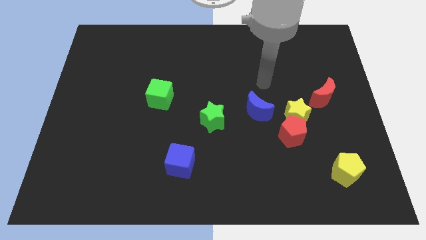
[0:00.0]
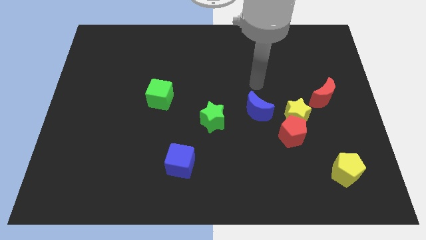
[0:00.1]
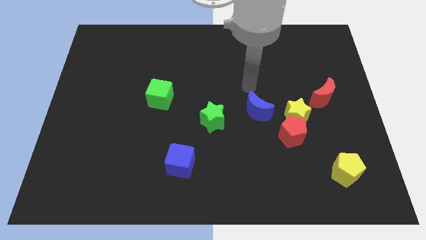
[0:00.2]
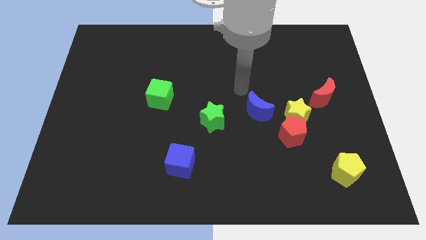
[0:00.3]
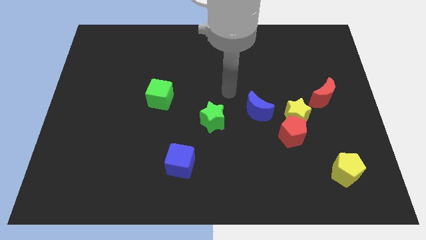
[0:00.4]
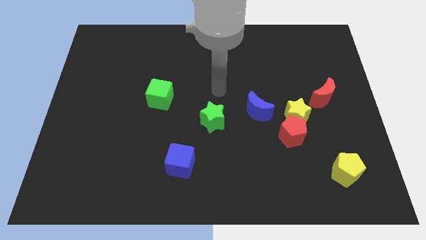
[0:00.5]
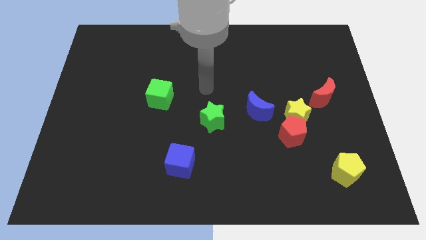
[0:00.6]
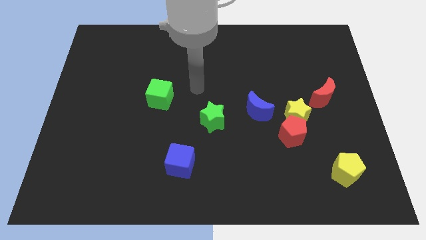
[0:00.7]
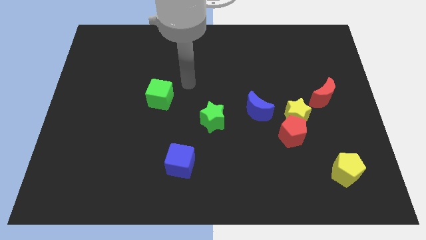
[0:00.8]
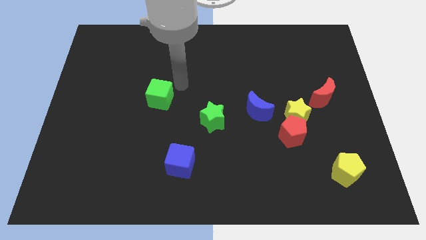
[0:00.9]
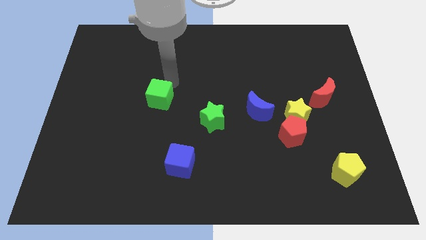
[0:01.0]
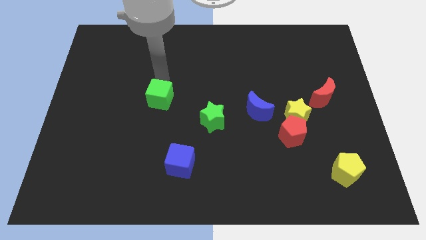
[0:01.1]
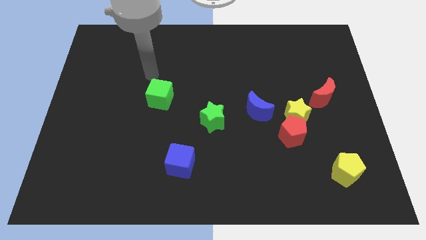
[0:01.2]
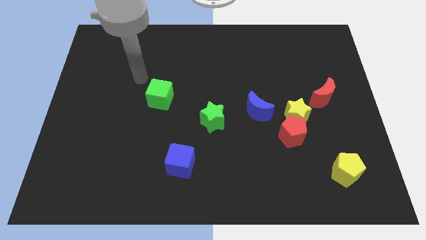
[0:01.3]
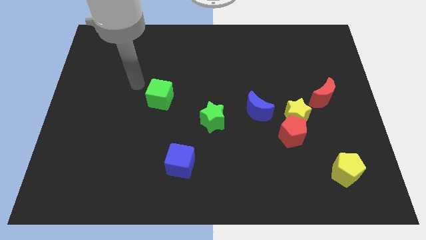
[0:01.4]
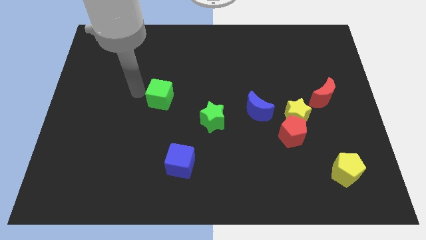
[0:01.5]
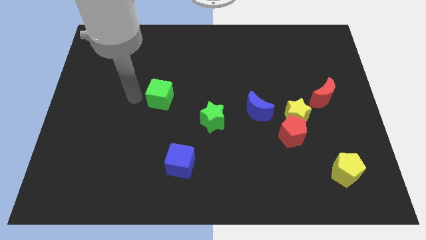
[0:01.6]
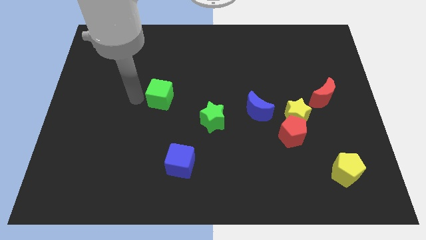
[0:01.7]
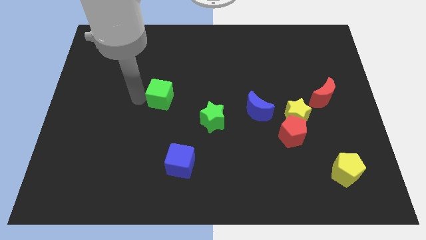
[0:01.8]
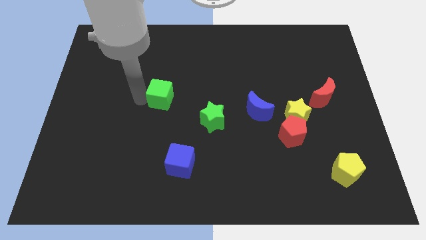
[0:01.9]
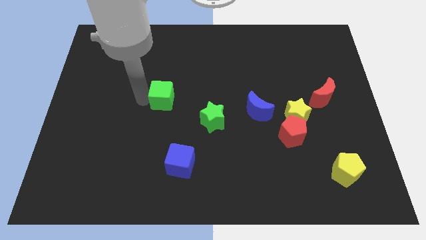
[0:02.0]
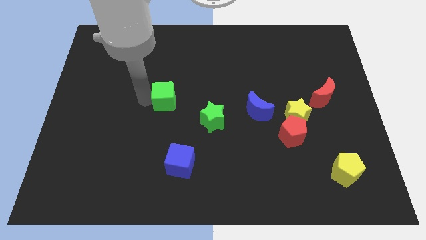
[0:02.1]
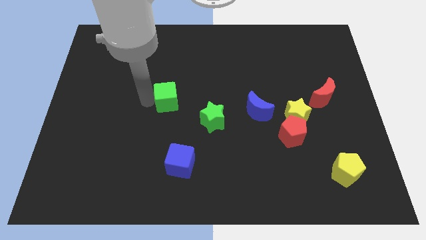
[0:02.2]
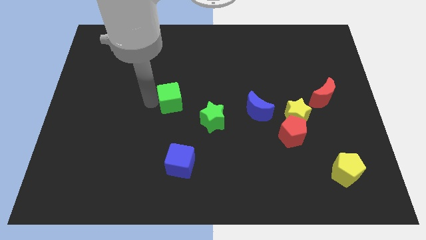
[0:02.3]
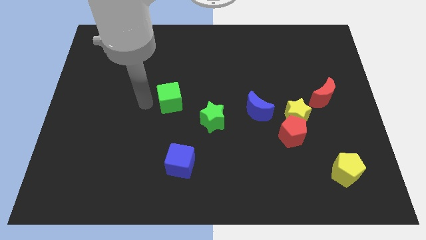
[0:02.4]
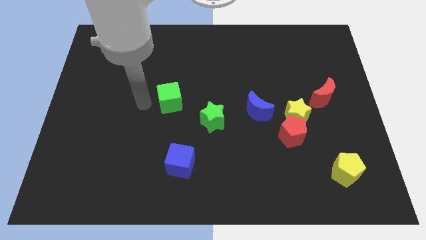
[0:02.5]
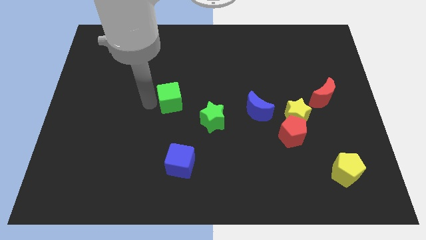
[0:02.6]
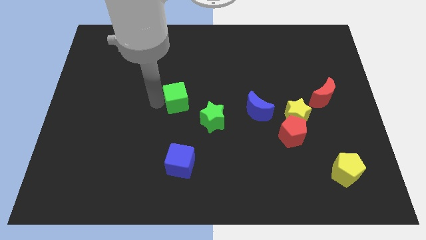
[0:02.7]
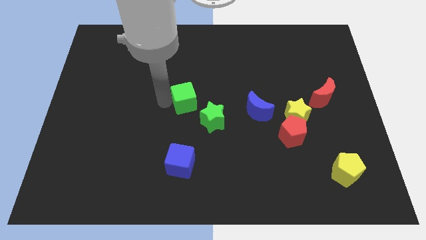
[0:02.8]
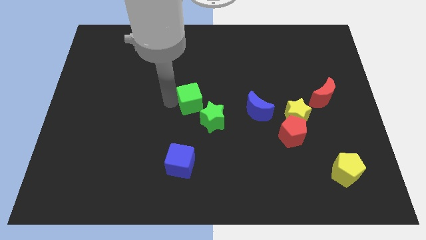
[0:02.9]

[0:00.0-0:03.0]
move the green cube right a little bit

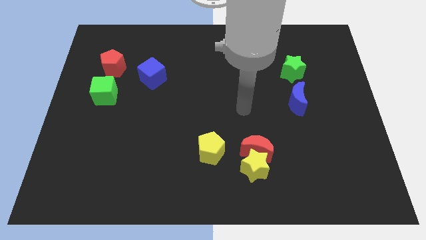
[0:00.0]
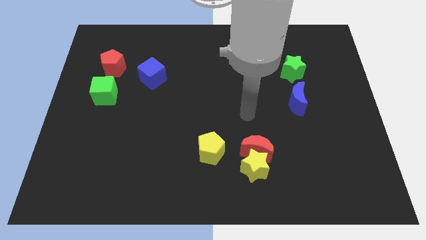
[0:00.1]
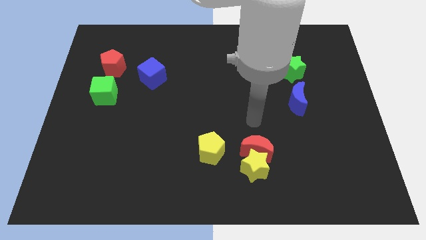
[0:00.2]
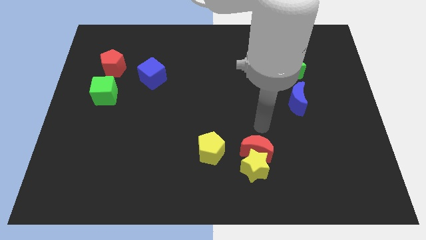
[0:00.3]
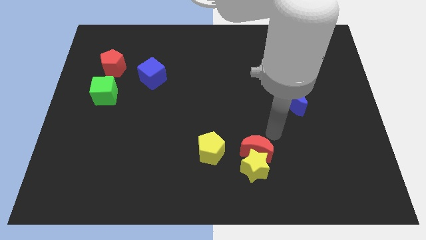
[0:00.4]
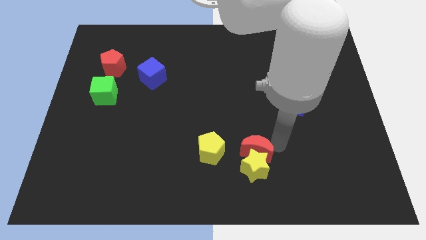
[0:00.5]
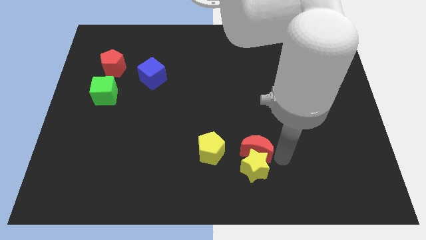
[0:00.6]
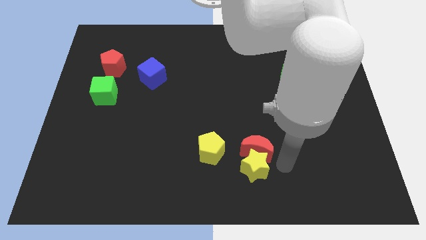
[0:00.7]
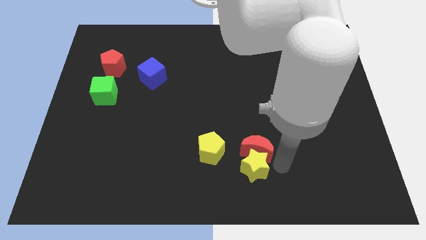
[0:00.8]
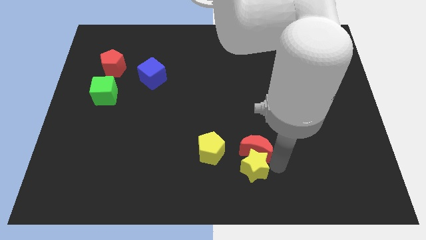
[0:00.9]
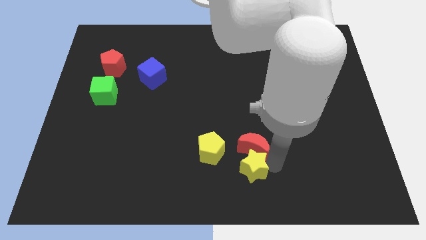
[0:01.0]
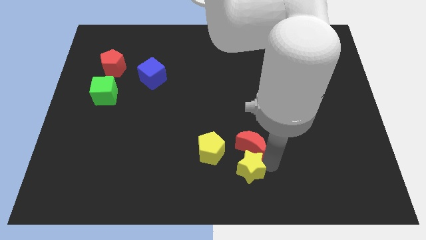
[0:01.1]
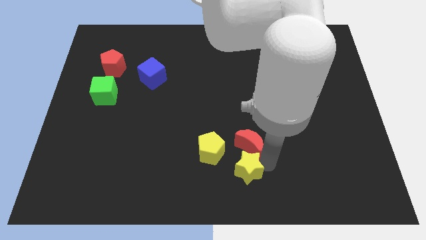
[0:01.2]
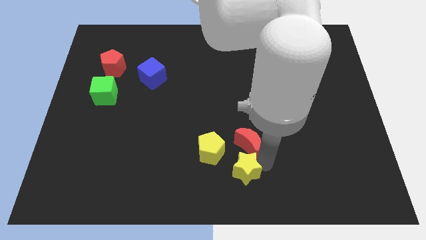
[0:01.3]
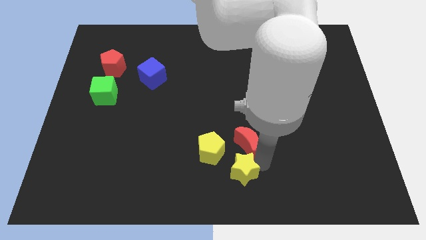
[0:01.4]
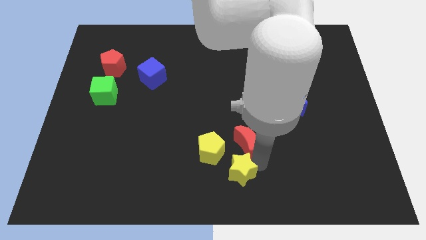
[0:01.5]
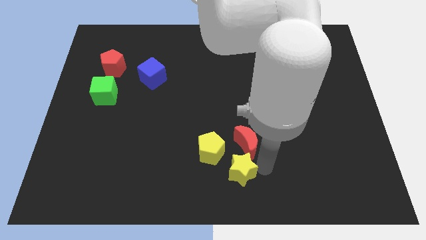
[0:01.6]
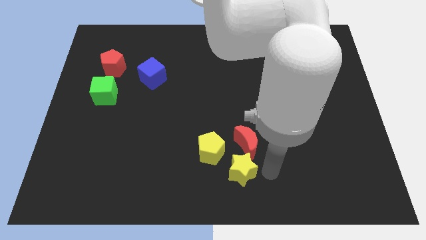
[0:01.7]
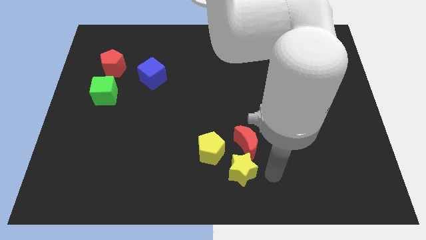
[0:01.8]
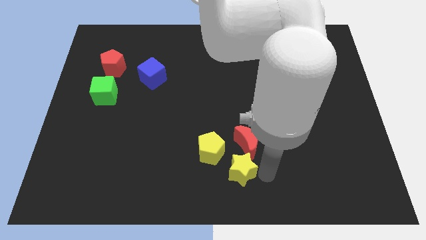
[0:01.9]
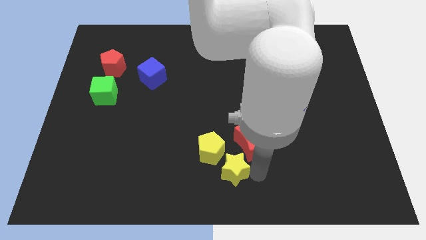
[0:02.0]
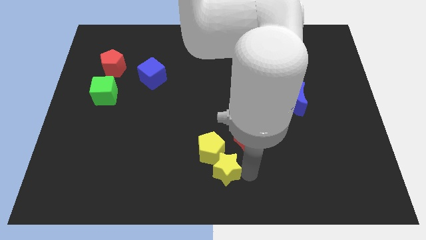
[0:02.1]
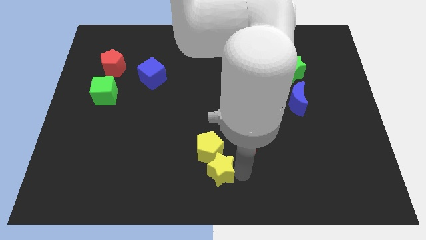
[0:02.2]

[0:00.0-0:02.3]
push the yellow star left somewhat

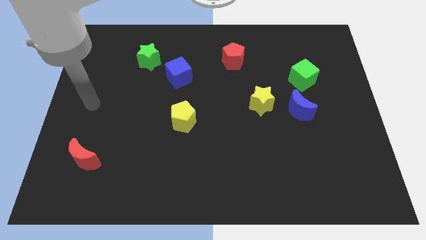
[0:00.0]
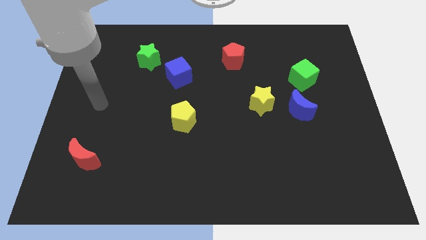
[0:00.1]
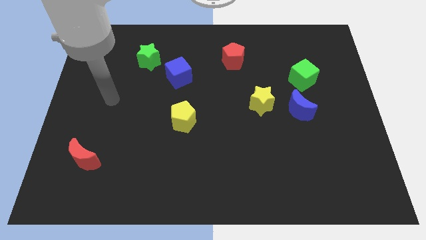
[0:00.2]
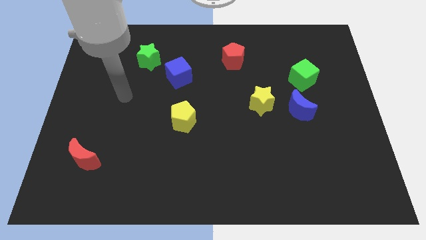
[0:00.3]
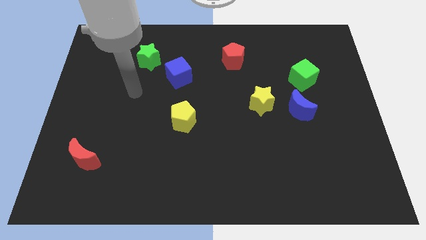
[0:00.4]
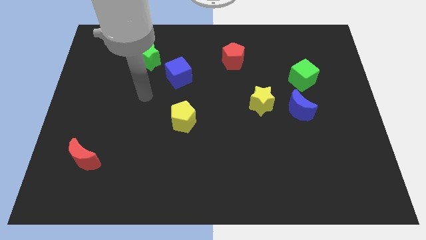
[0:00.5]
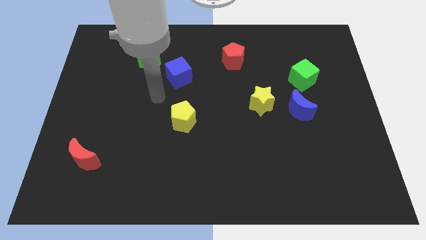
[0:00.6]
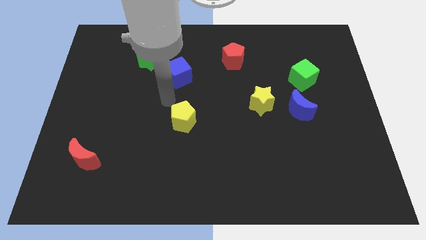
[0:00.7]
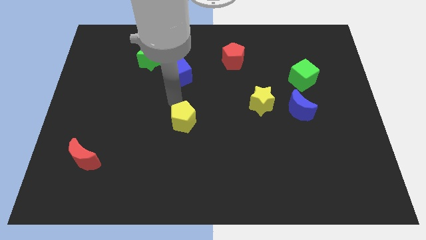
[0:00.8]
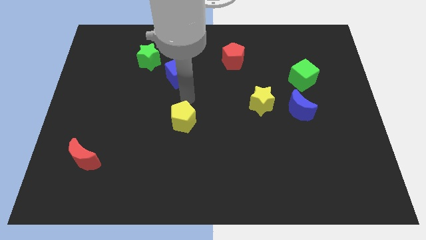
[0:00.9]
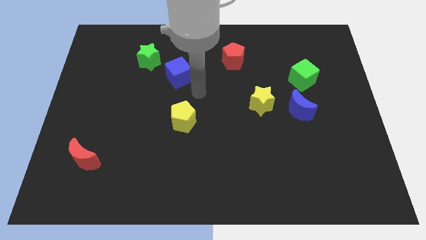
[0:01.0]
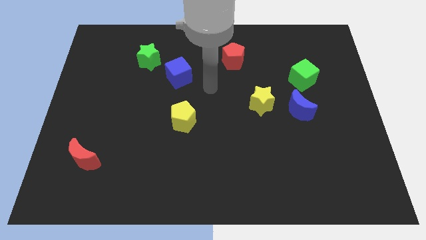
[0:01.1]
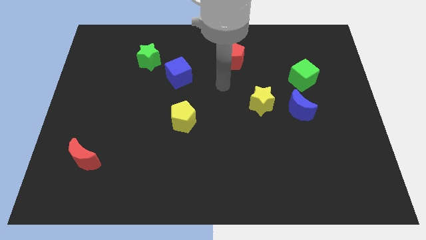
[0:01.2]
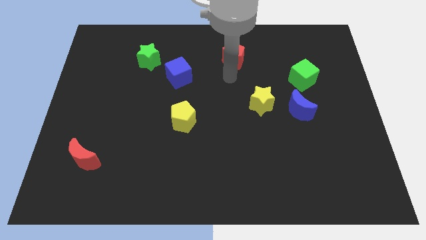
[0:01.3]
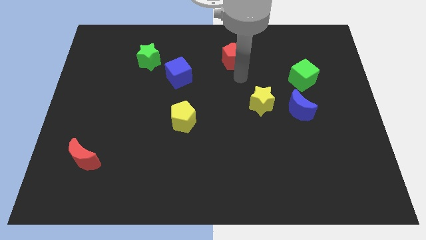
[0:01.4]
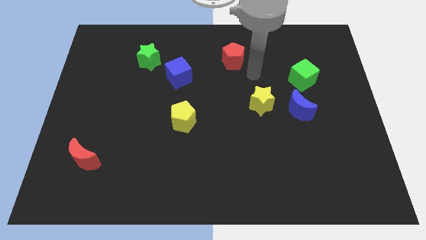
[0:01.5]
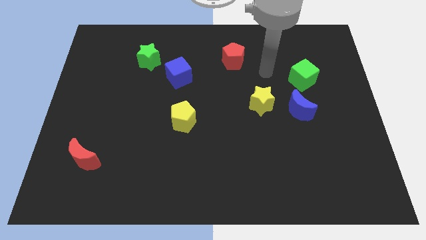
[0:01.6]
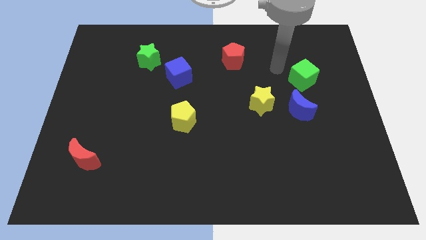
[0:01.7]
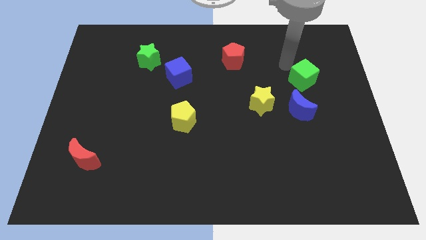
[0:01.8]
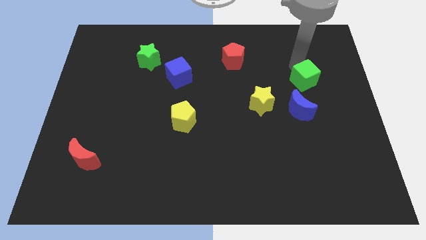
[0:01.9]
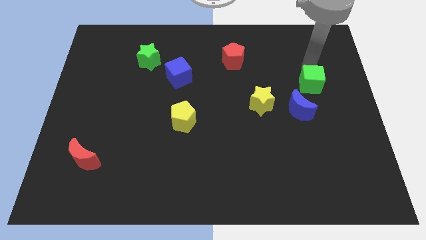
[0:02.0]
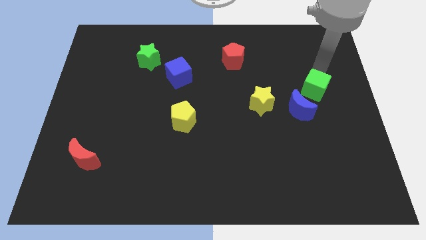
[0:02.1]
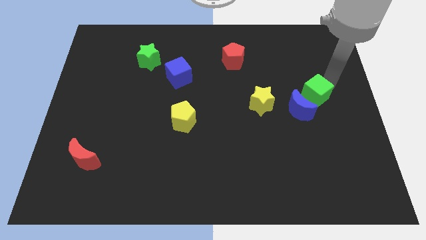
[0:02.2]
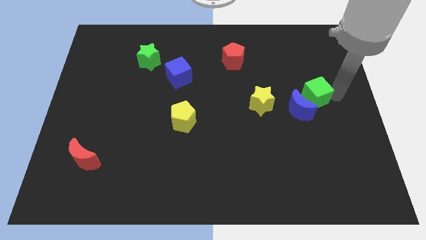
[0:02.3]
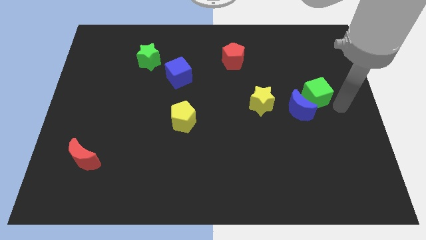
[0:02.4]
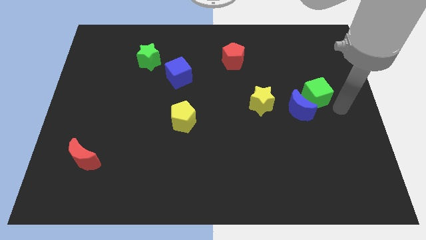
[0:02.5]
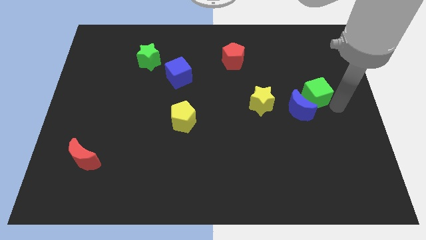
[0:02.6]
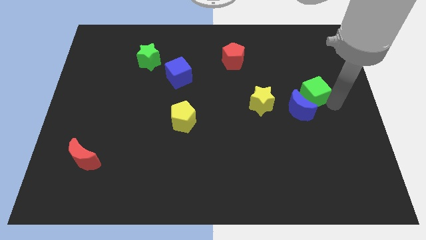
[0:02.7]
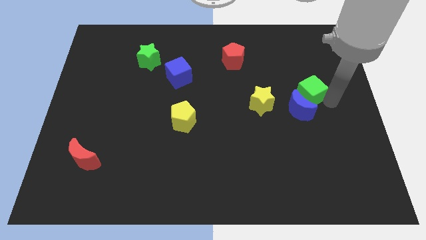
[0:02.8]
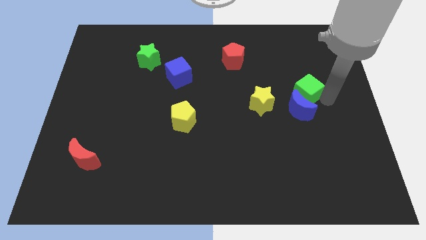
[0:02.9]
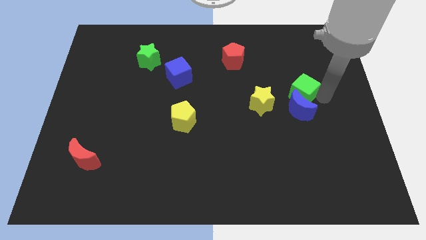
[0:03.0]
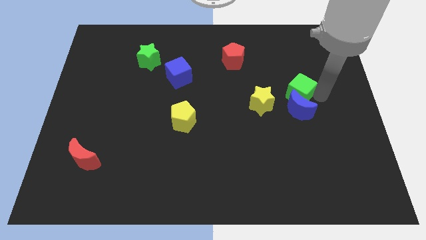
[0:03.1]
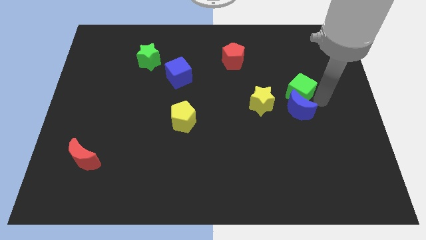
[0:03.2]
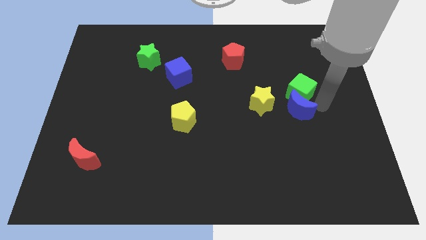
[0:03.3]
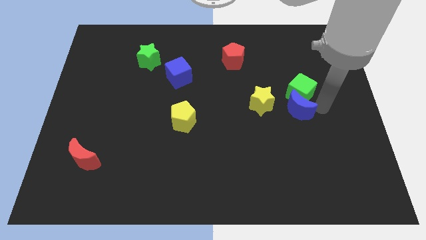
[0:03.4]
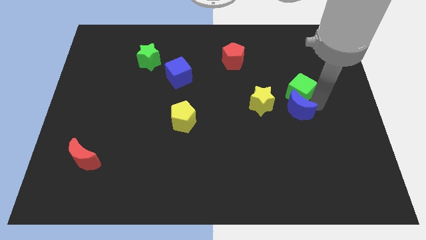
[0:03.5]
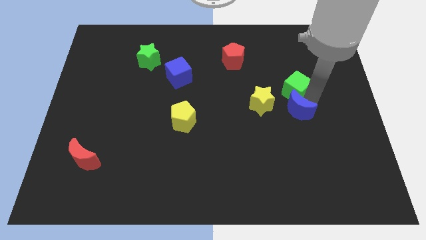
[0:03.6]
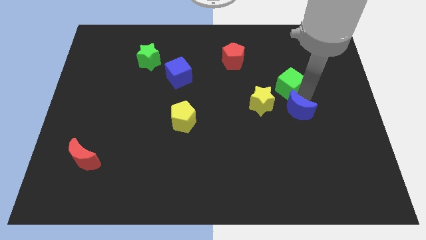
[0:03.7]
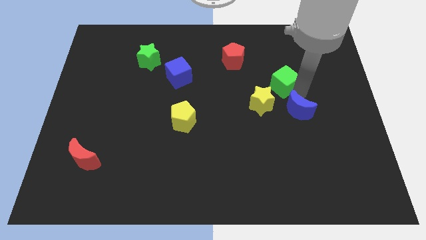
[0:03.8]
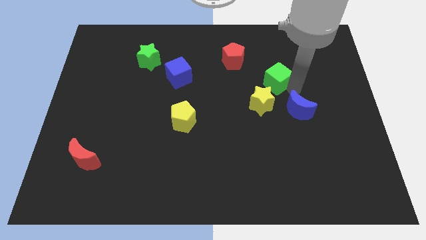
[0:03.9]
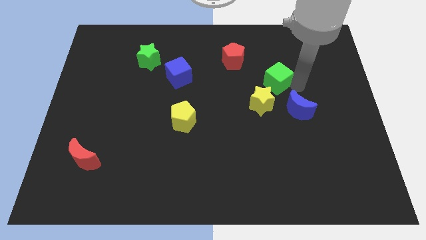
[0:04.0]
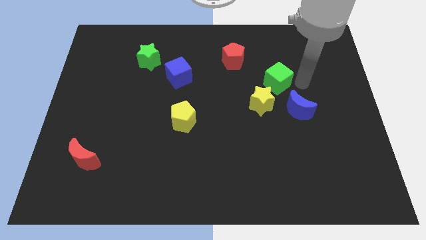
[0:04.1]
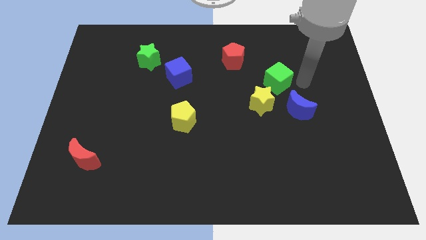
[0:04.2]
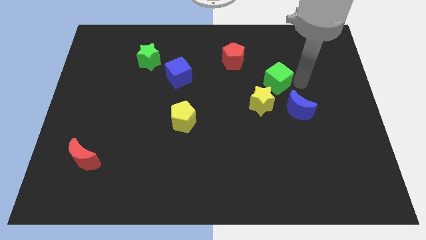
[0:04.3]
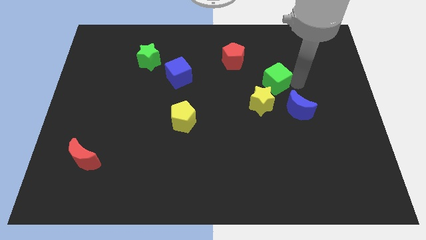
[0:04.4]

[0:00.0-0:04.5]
slide the green cube somewhat to the left
